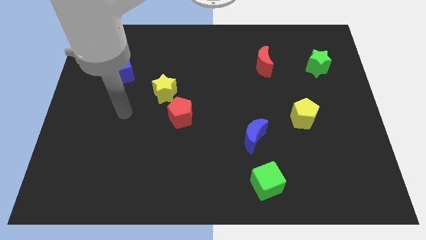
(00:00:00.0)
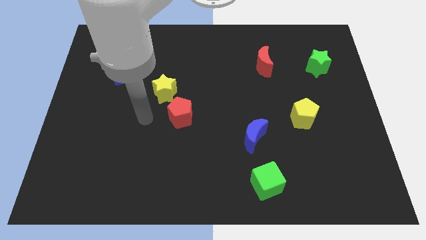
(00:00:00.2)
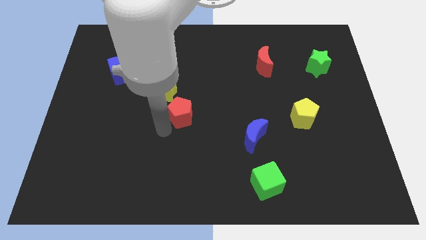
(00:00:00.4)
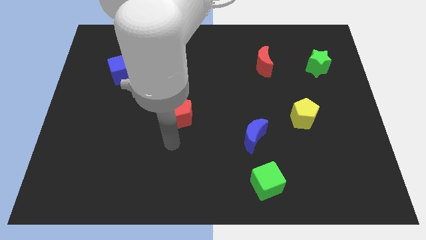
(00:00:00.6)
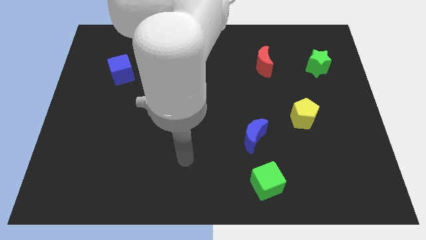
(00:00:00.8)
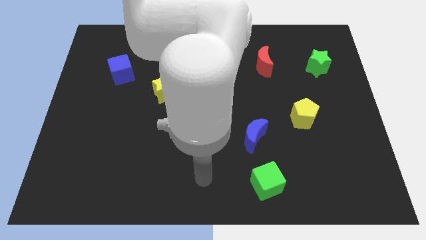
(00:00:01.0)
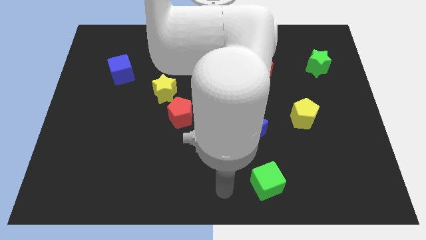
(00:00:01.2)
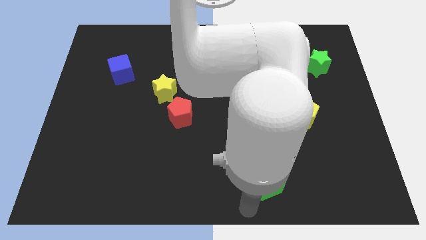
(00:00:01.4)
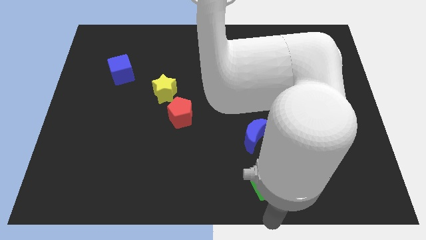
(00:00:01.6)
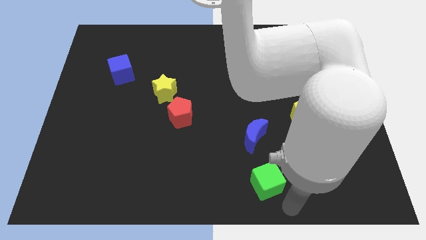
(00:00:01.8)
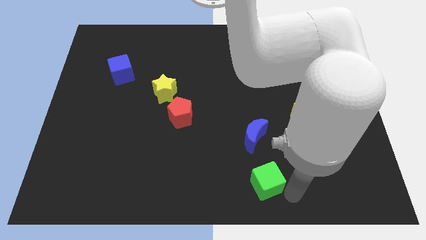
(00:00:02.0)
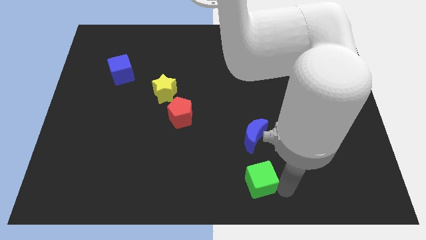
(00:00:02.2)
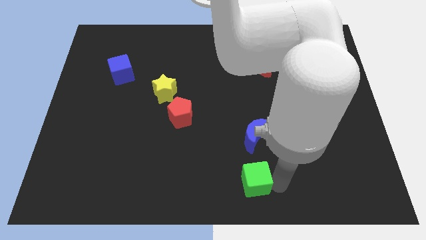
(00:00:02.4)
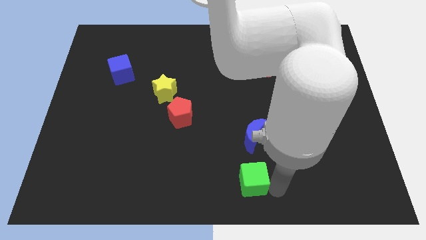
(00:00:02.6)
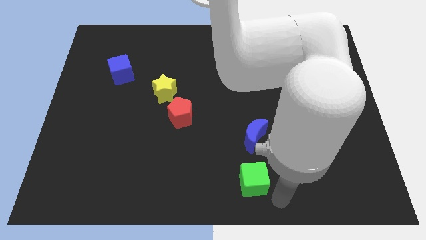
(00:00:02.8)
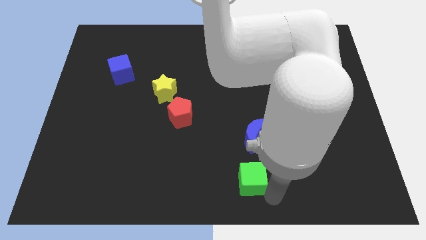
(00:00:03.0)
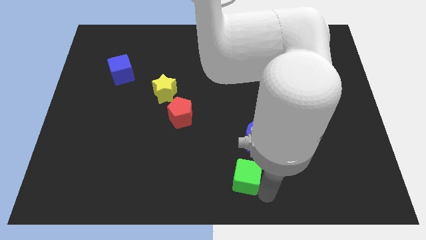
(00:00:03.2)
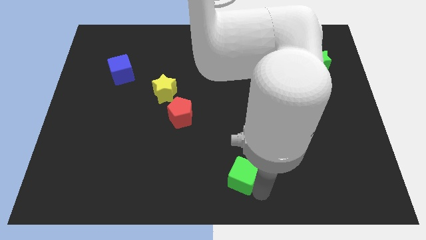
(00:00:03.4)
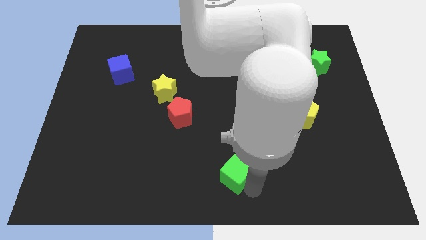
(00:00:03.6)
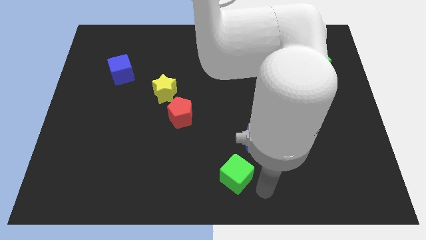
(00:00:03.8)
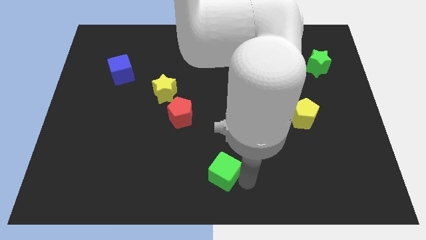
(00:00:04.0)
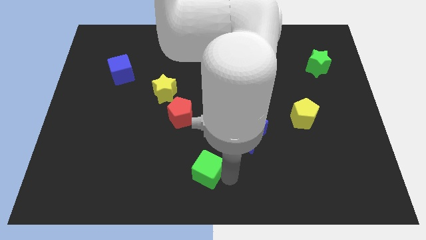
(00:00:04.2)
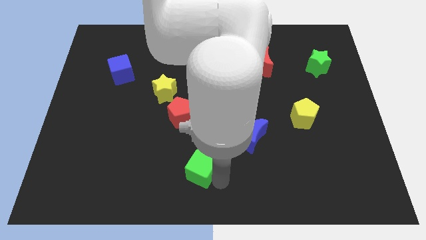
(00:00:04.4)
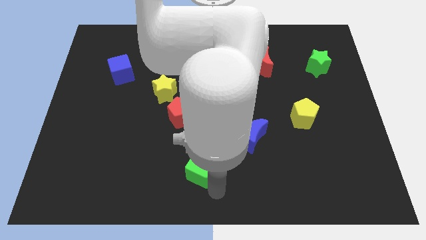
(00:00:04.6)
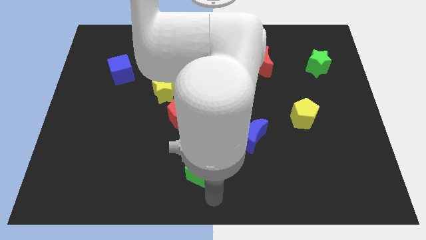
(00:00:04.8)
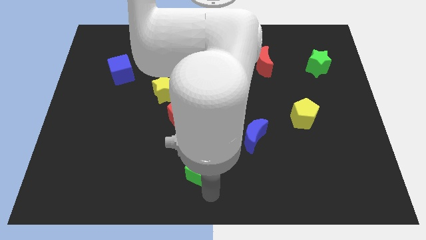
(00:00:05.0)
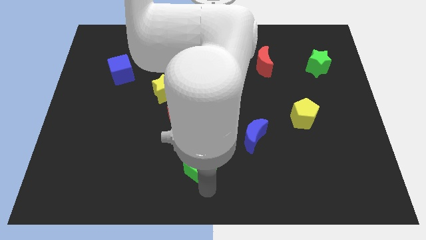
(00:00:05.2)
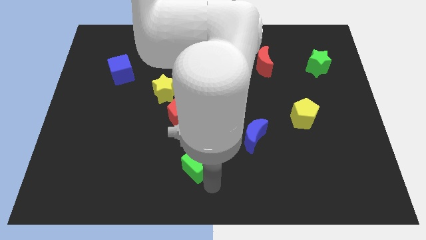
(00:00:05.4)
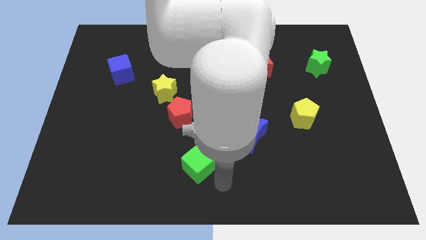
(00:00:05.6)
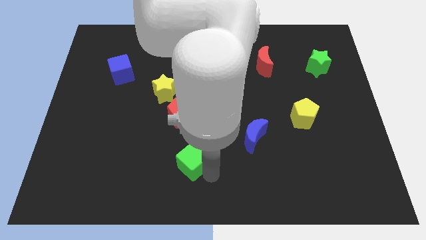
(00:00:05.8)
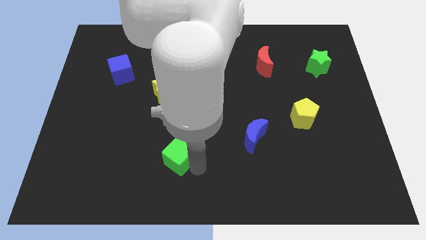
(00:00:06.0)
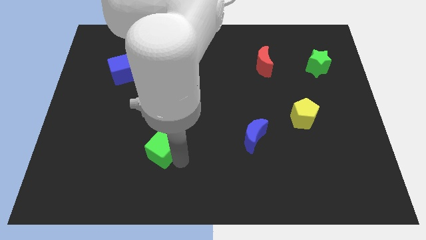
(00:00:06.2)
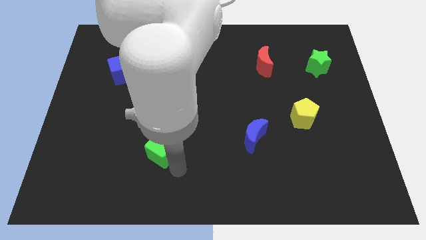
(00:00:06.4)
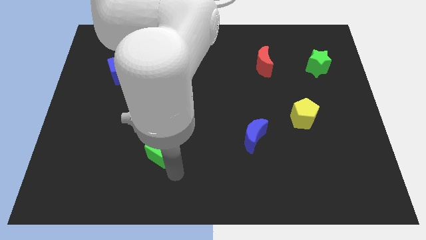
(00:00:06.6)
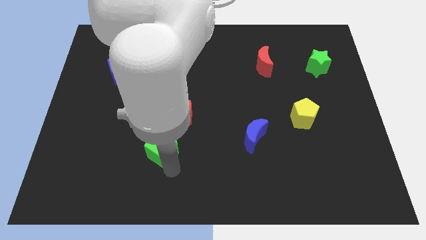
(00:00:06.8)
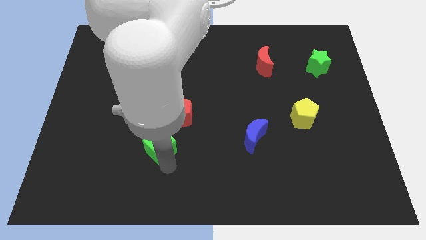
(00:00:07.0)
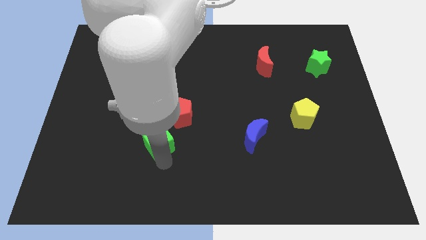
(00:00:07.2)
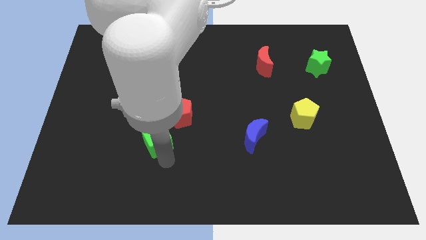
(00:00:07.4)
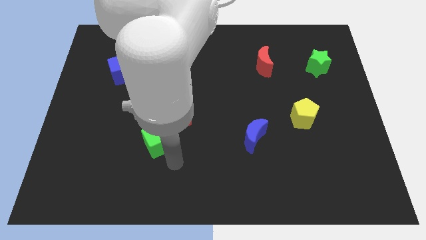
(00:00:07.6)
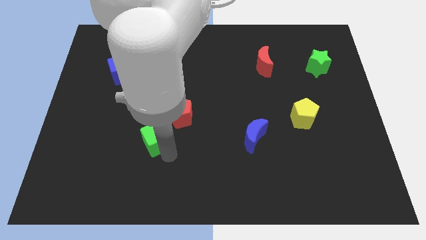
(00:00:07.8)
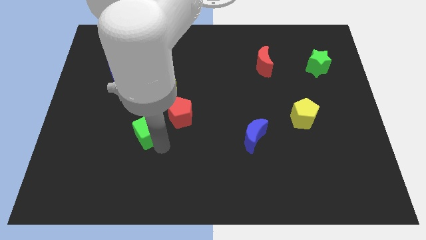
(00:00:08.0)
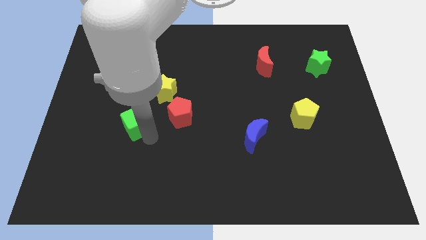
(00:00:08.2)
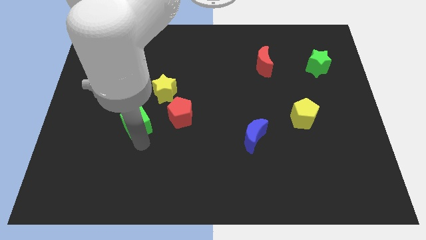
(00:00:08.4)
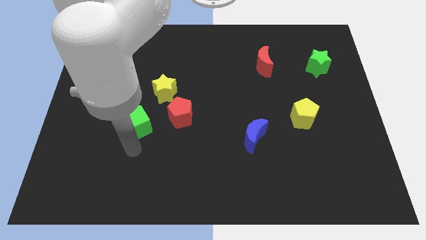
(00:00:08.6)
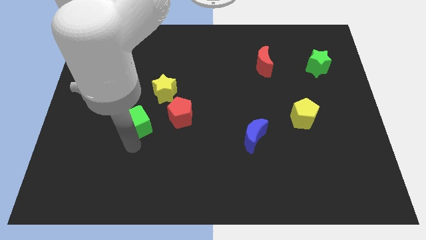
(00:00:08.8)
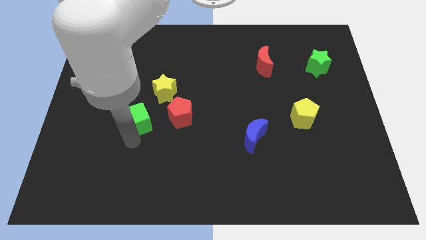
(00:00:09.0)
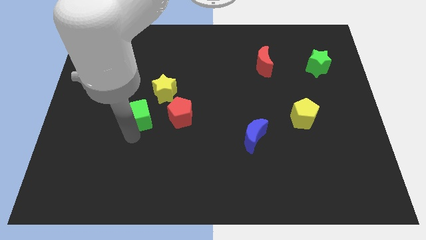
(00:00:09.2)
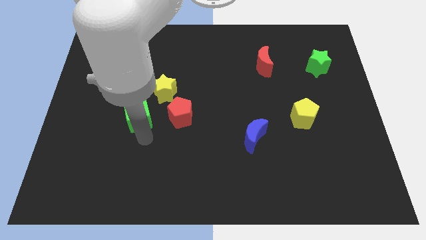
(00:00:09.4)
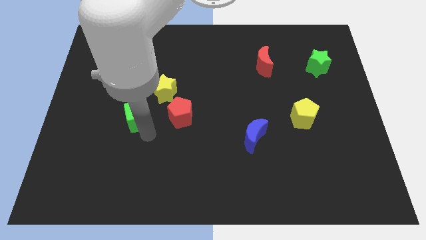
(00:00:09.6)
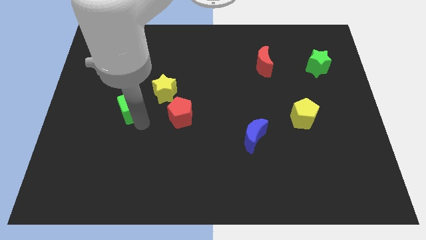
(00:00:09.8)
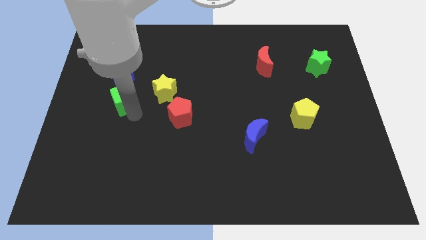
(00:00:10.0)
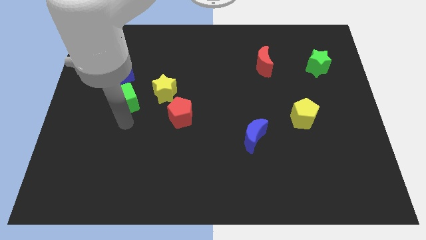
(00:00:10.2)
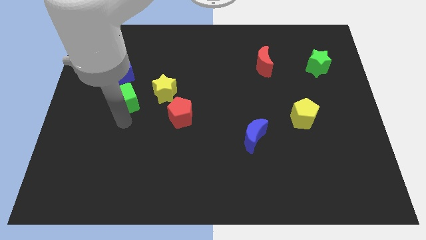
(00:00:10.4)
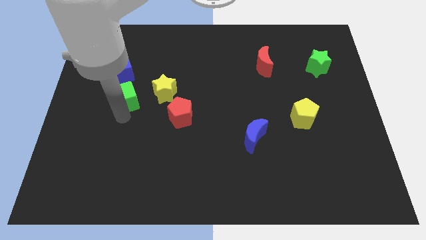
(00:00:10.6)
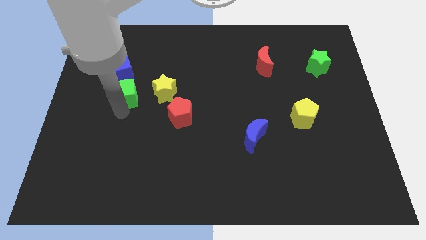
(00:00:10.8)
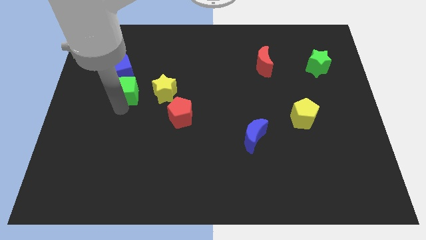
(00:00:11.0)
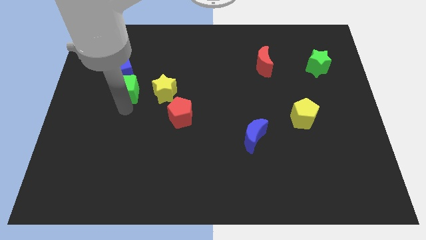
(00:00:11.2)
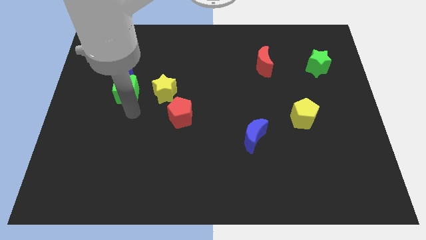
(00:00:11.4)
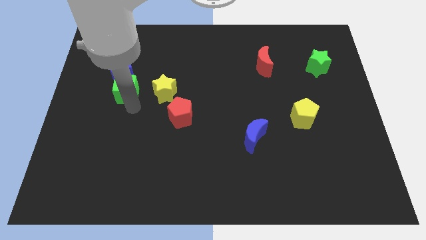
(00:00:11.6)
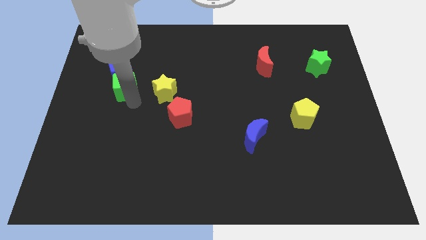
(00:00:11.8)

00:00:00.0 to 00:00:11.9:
move the green cube next to the blue cube

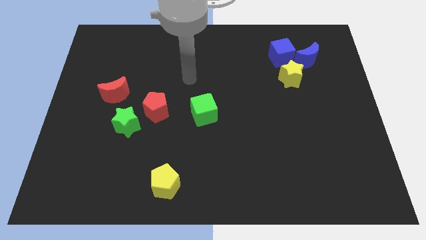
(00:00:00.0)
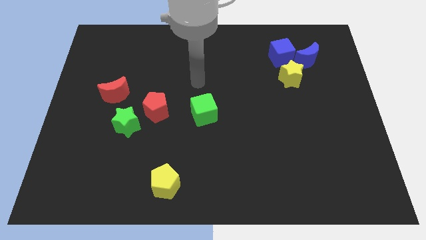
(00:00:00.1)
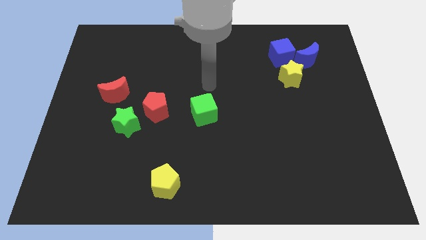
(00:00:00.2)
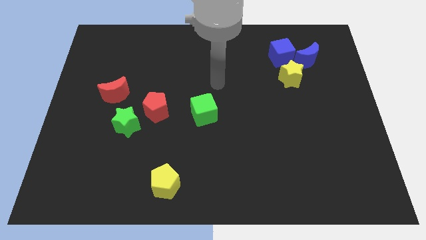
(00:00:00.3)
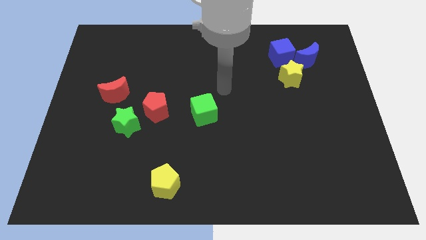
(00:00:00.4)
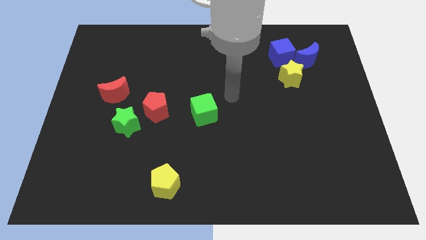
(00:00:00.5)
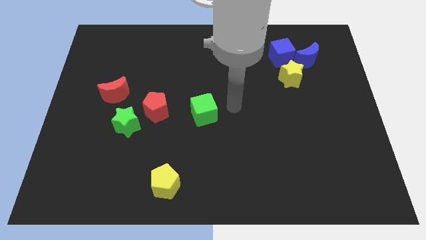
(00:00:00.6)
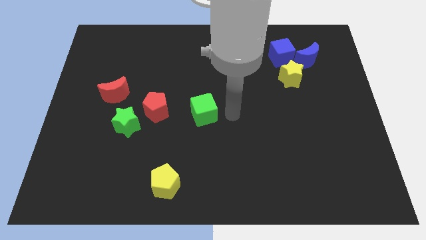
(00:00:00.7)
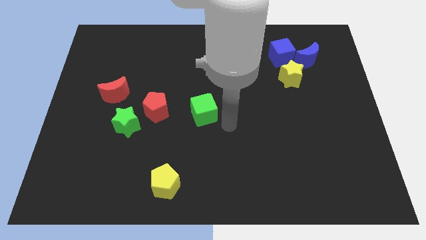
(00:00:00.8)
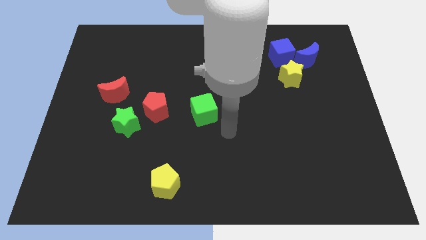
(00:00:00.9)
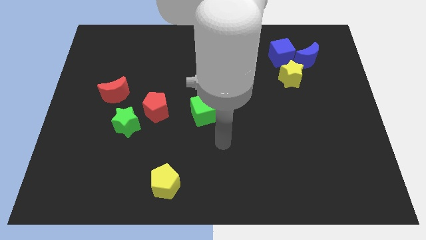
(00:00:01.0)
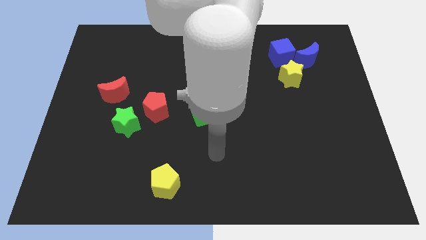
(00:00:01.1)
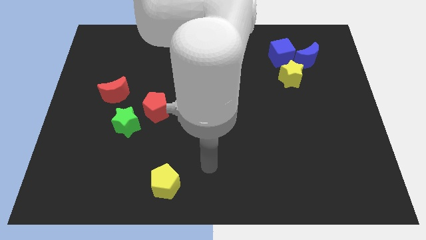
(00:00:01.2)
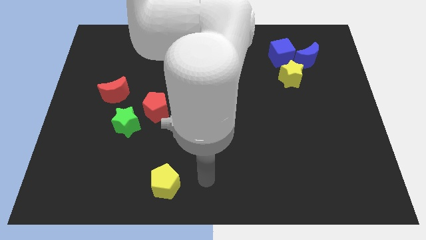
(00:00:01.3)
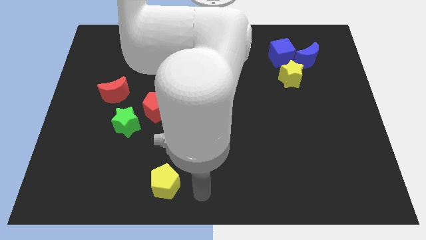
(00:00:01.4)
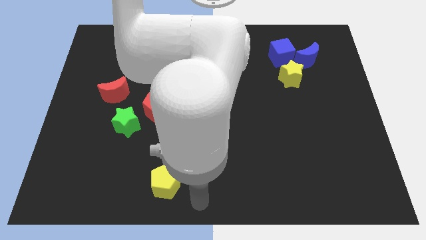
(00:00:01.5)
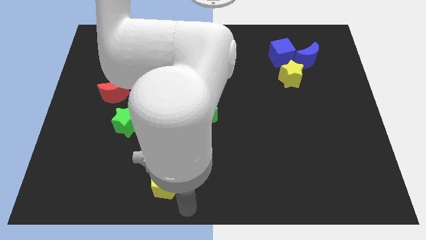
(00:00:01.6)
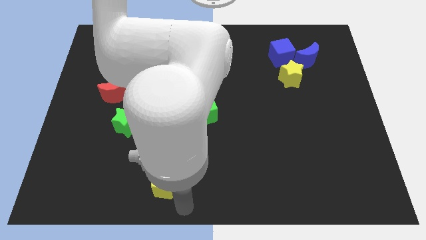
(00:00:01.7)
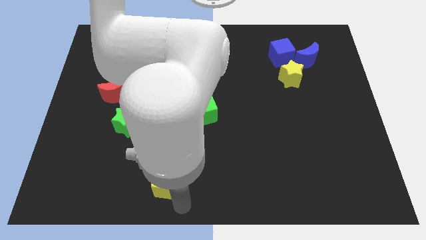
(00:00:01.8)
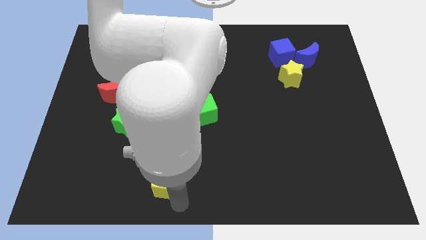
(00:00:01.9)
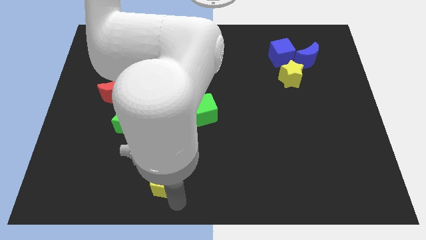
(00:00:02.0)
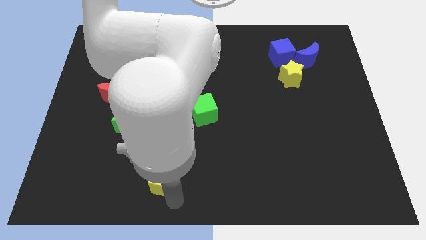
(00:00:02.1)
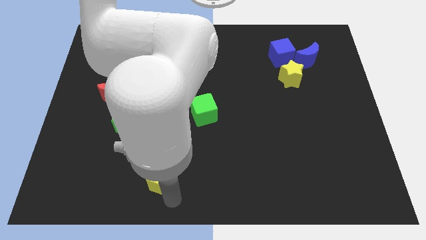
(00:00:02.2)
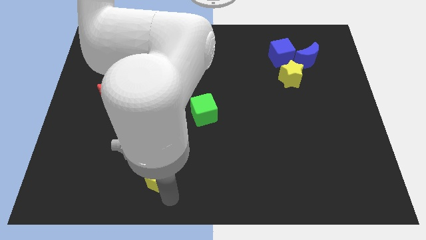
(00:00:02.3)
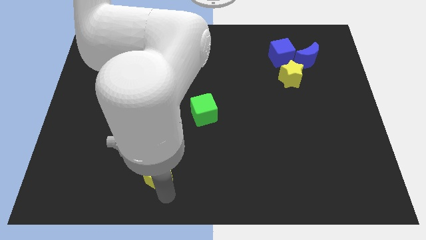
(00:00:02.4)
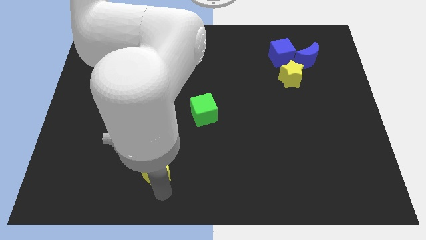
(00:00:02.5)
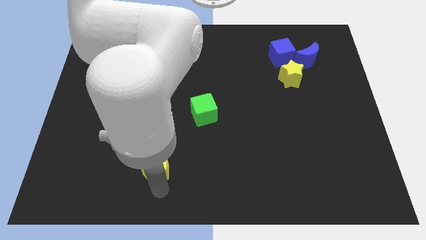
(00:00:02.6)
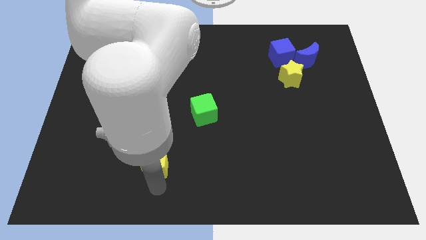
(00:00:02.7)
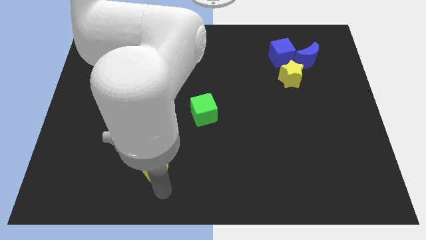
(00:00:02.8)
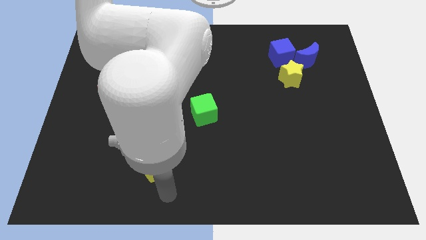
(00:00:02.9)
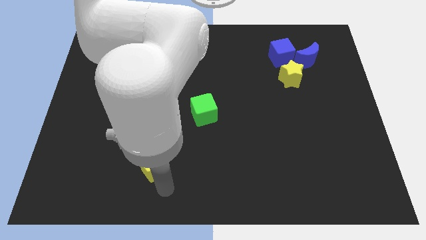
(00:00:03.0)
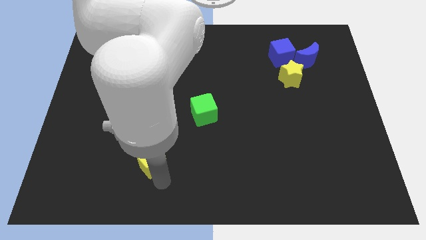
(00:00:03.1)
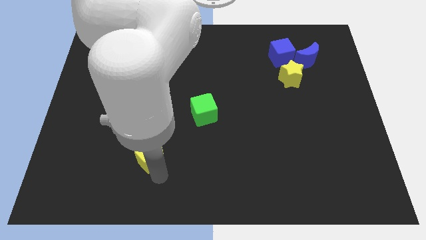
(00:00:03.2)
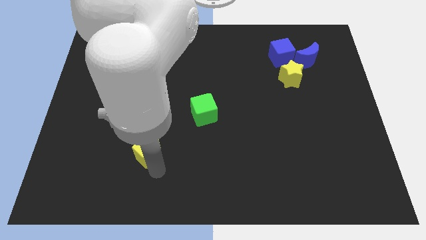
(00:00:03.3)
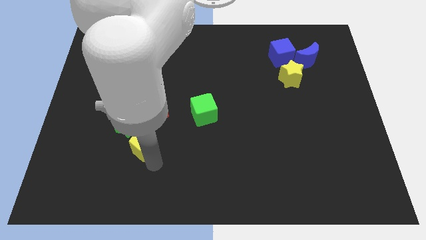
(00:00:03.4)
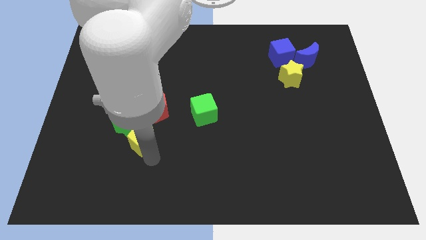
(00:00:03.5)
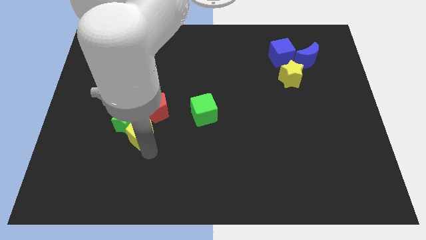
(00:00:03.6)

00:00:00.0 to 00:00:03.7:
put the yellow pentagon close to the green star
